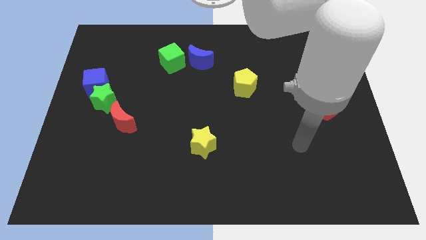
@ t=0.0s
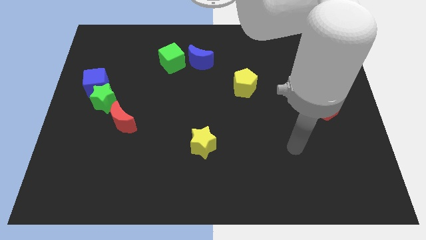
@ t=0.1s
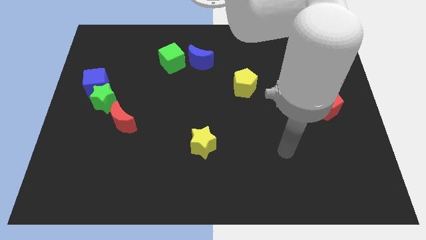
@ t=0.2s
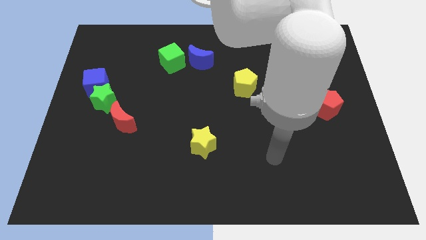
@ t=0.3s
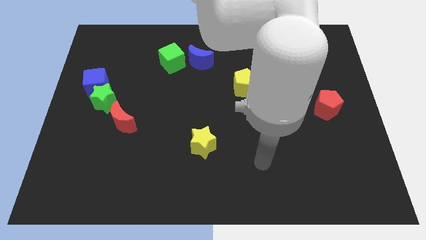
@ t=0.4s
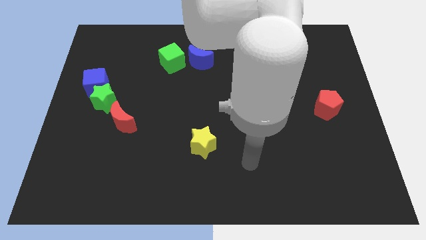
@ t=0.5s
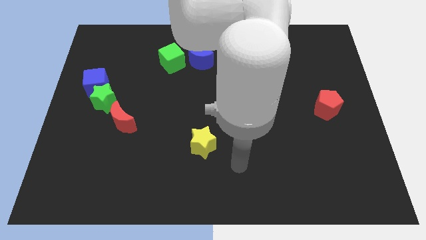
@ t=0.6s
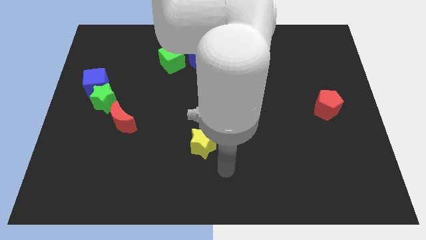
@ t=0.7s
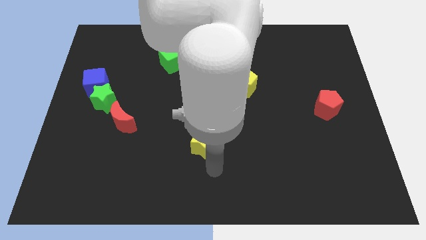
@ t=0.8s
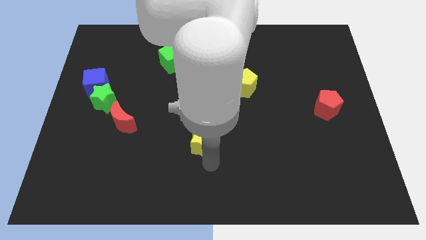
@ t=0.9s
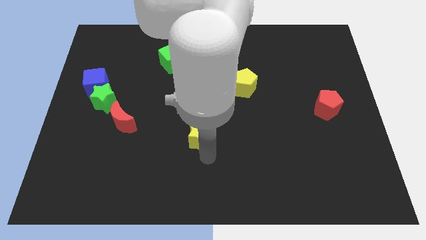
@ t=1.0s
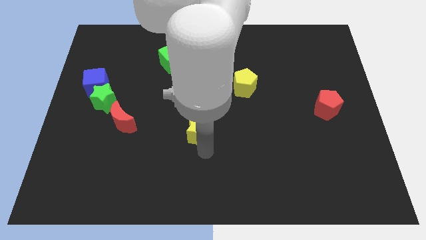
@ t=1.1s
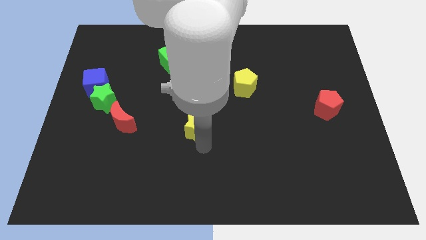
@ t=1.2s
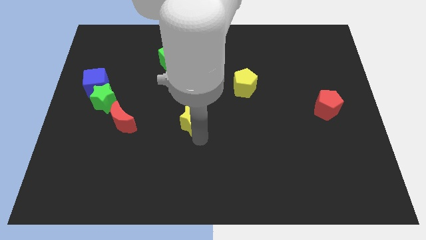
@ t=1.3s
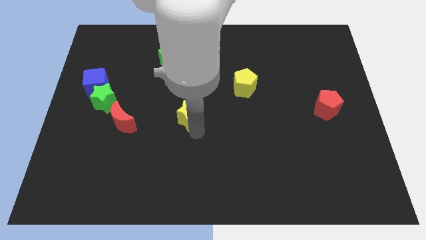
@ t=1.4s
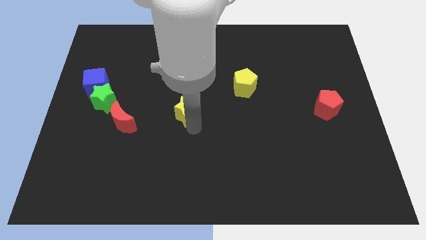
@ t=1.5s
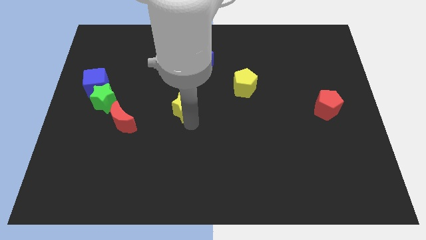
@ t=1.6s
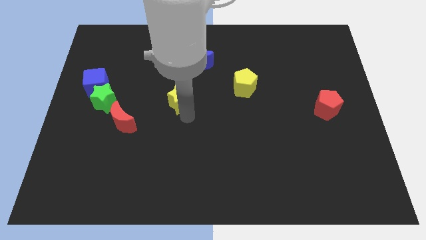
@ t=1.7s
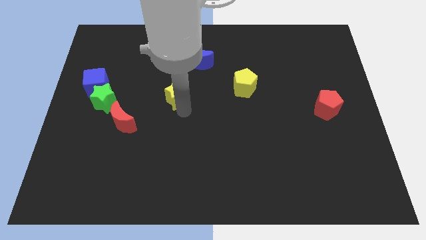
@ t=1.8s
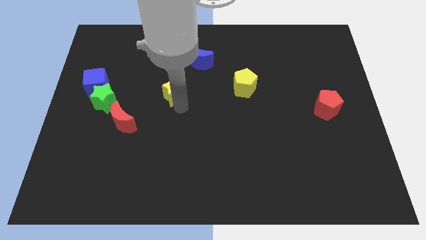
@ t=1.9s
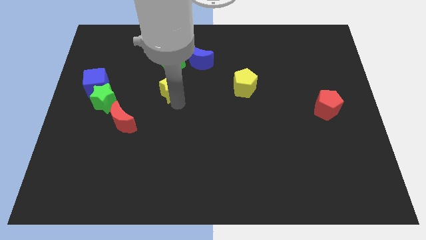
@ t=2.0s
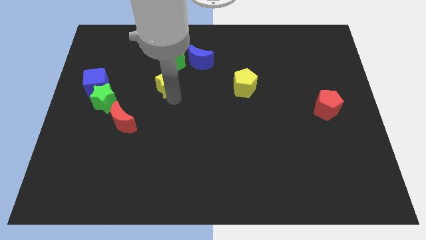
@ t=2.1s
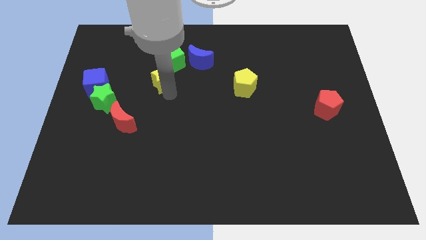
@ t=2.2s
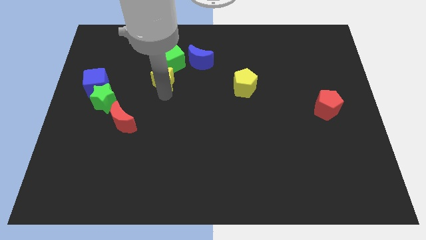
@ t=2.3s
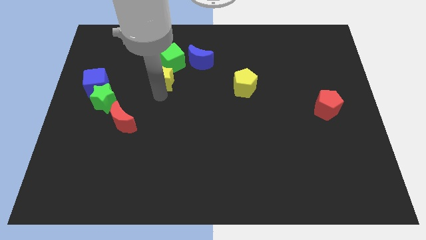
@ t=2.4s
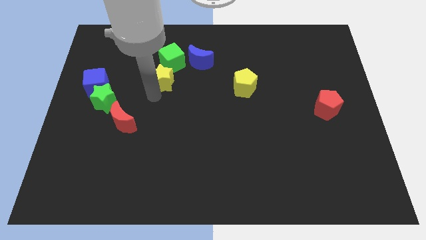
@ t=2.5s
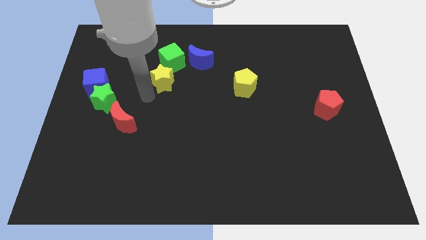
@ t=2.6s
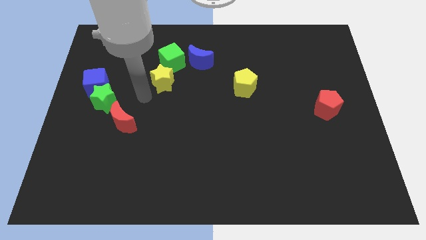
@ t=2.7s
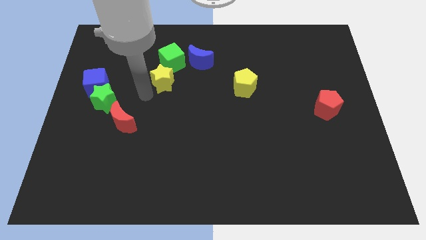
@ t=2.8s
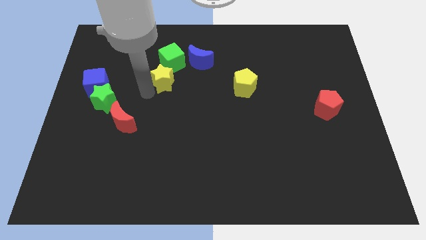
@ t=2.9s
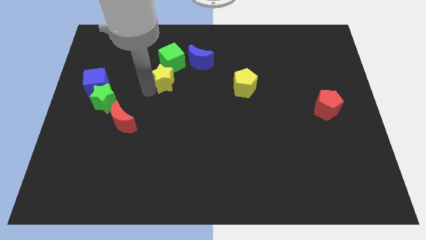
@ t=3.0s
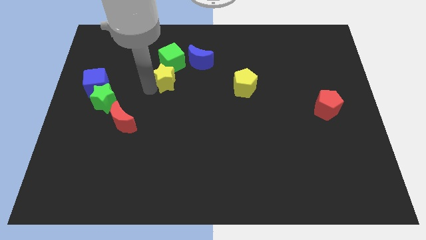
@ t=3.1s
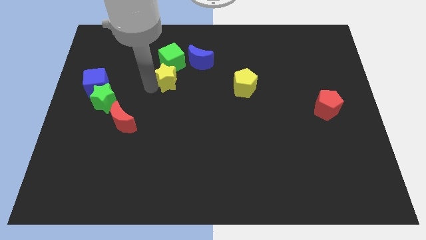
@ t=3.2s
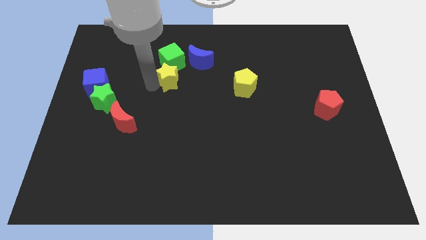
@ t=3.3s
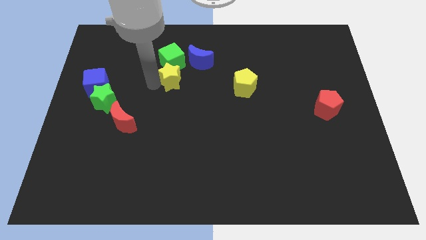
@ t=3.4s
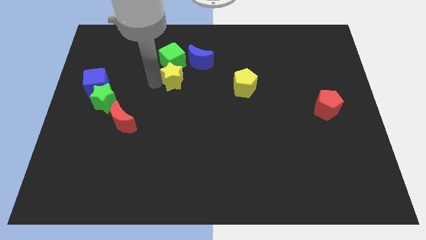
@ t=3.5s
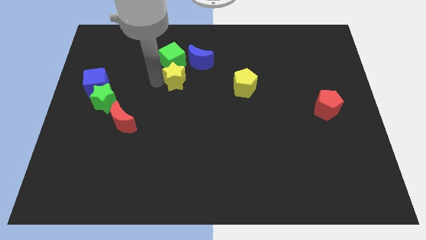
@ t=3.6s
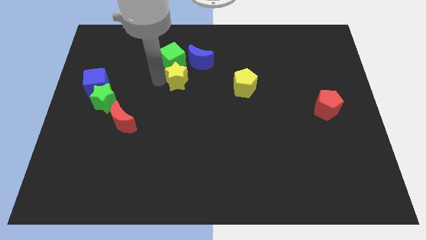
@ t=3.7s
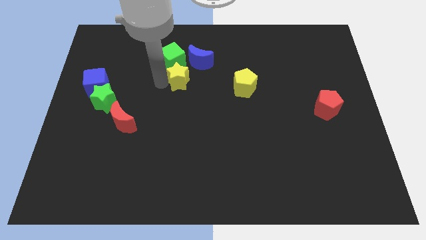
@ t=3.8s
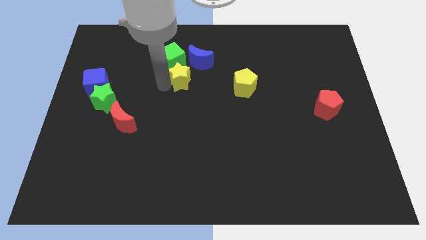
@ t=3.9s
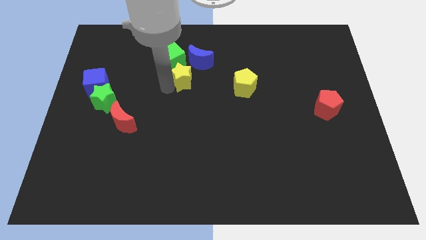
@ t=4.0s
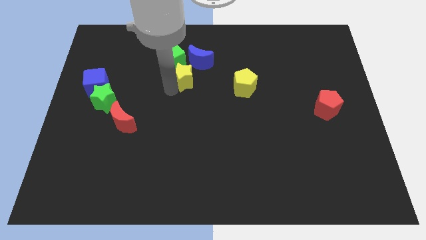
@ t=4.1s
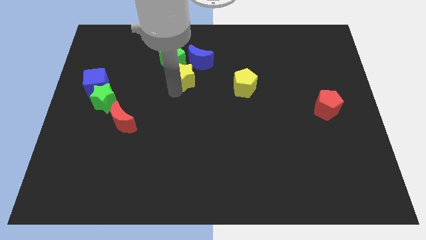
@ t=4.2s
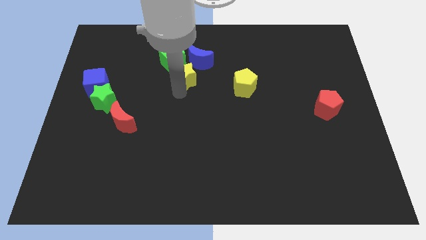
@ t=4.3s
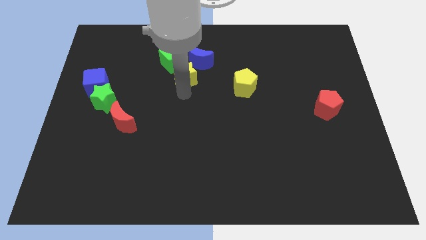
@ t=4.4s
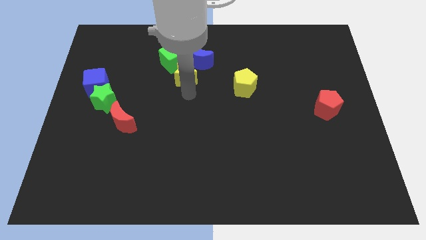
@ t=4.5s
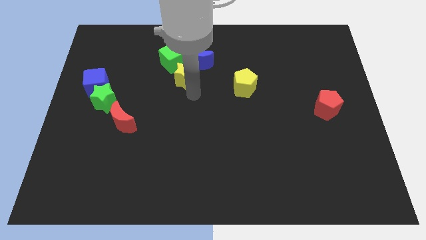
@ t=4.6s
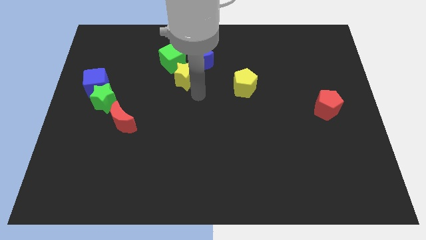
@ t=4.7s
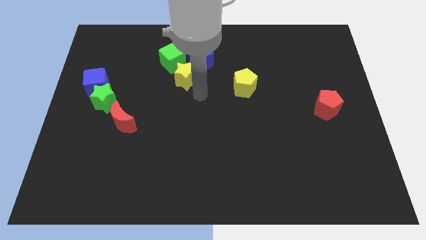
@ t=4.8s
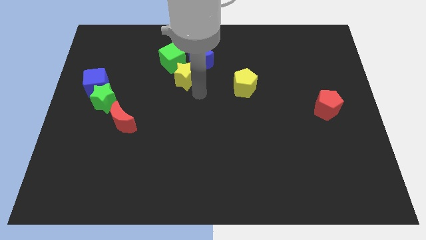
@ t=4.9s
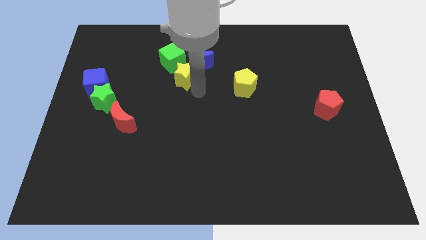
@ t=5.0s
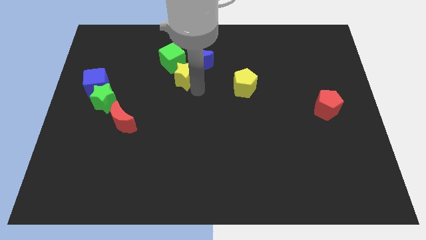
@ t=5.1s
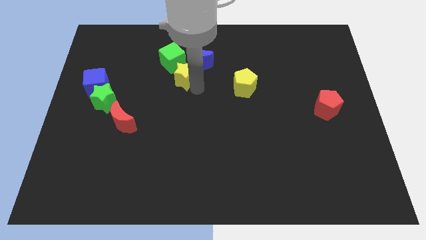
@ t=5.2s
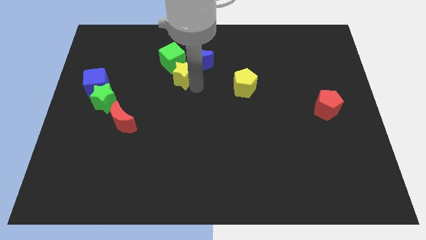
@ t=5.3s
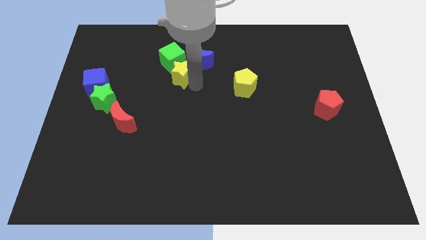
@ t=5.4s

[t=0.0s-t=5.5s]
push the yellow star to the green cube

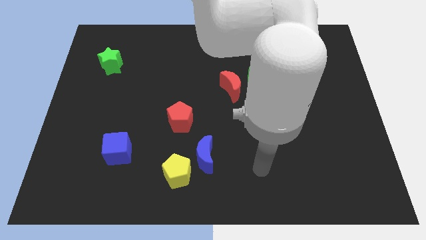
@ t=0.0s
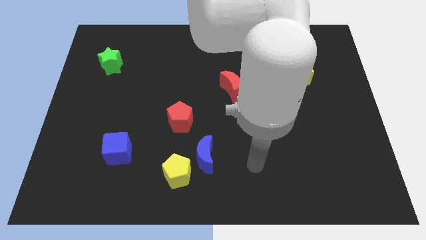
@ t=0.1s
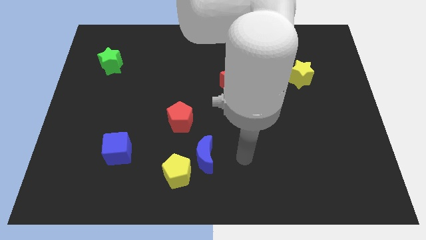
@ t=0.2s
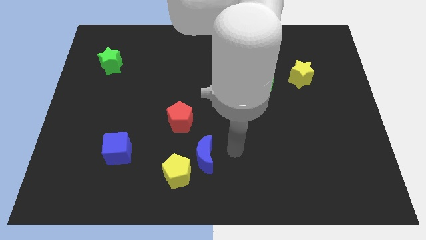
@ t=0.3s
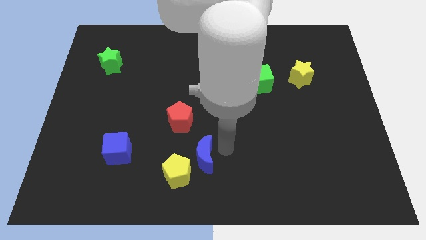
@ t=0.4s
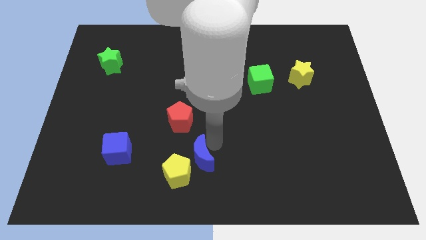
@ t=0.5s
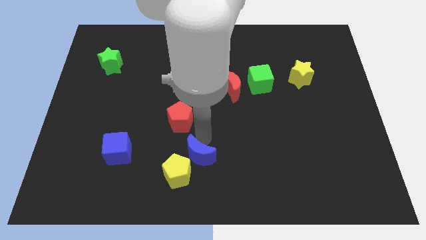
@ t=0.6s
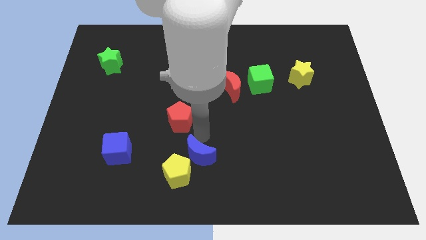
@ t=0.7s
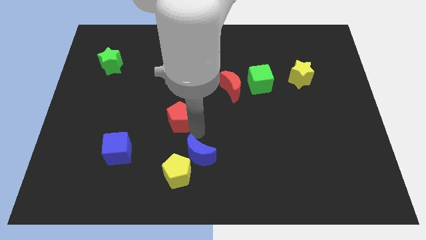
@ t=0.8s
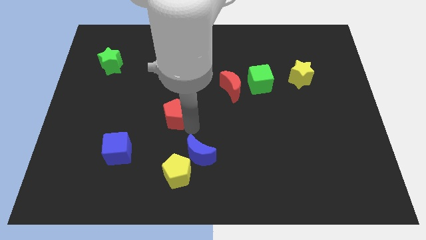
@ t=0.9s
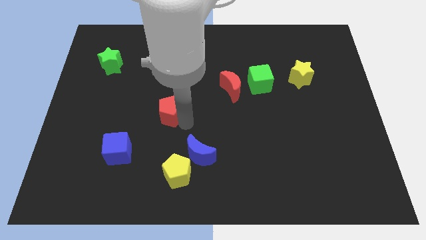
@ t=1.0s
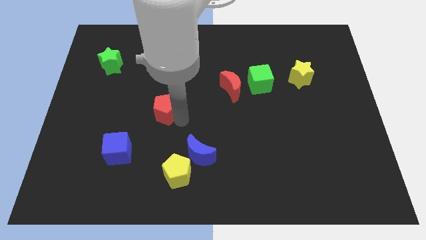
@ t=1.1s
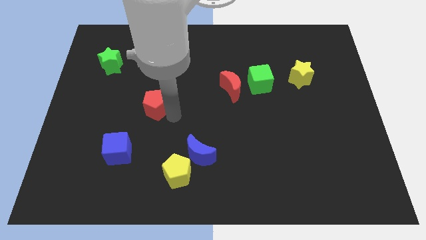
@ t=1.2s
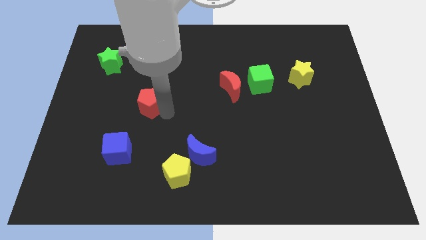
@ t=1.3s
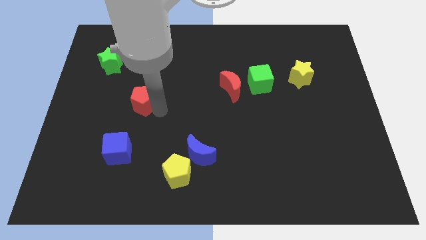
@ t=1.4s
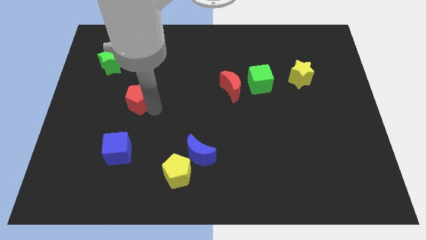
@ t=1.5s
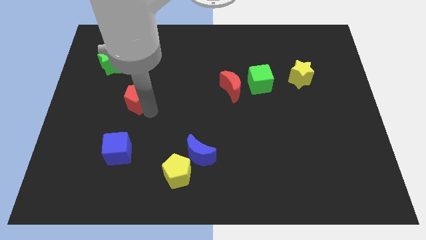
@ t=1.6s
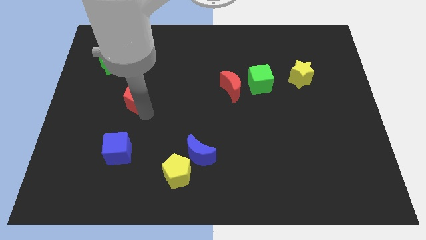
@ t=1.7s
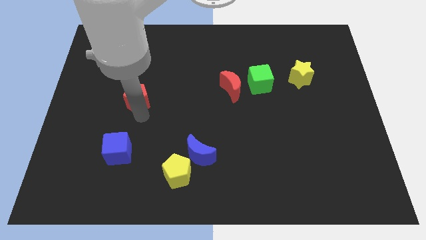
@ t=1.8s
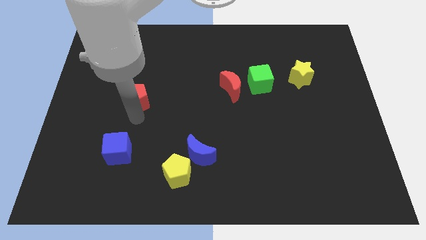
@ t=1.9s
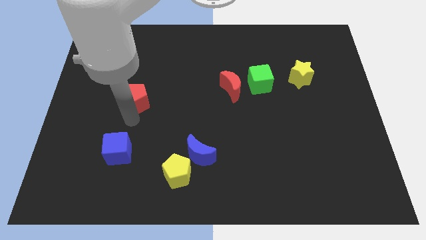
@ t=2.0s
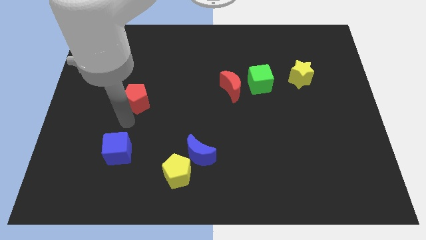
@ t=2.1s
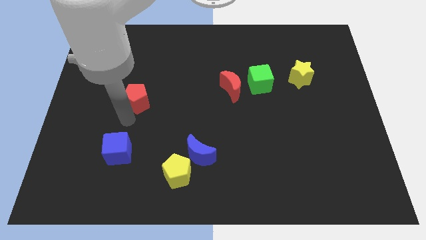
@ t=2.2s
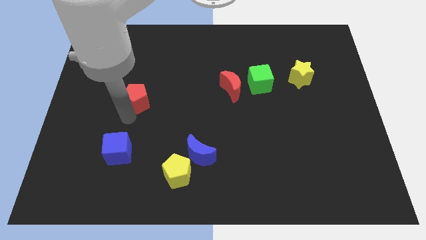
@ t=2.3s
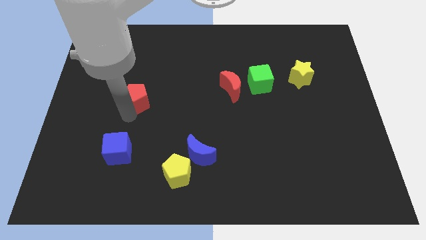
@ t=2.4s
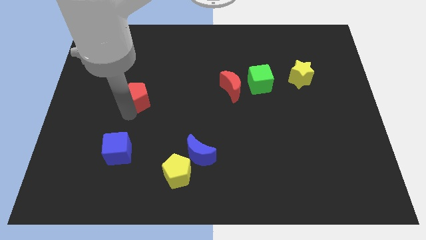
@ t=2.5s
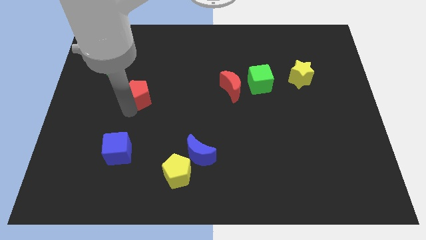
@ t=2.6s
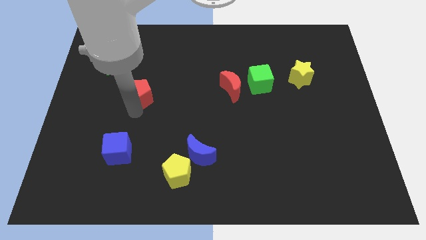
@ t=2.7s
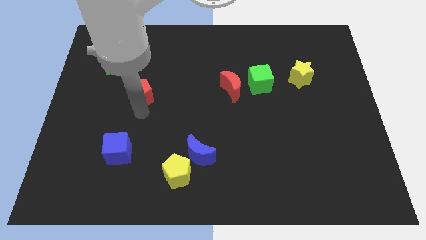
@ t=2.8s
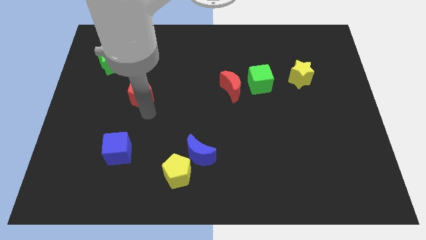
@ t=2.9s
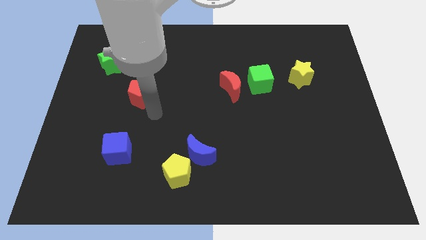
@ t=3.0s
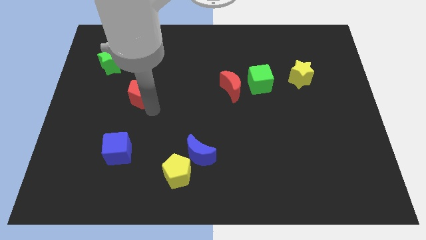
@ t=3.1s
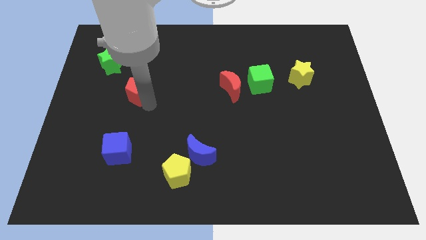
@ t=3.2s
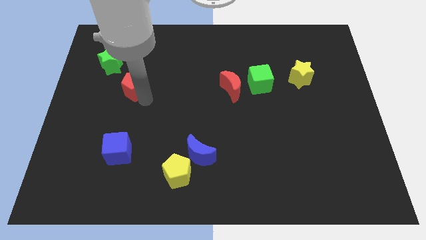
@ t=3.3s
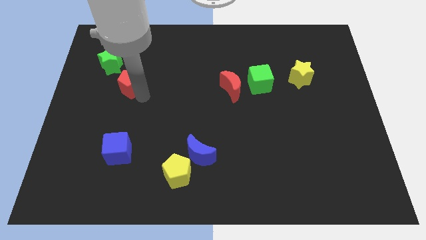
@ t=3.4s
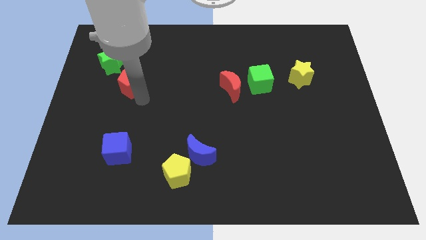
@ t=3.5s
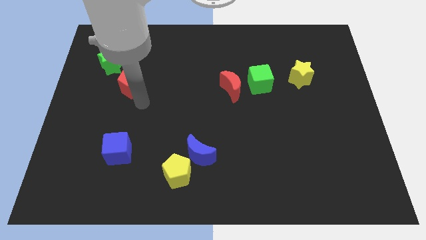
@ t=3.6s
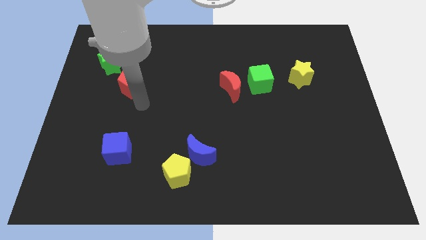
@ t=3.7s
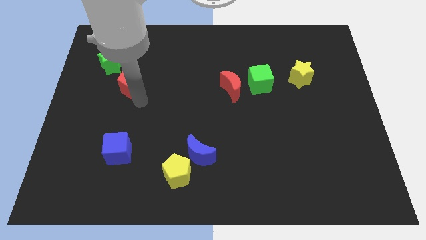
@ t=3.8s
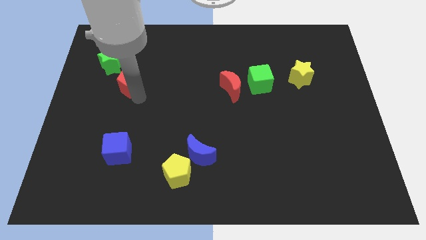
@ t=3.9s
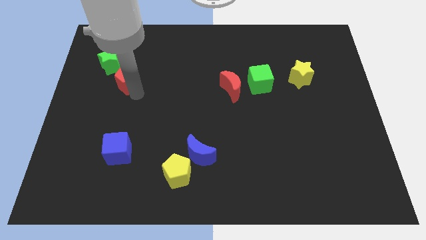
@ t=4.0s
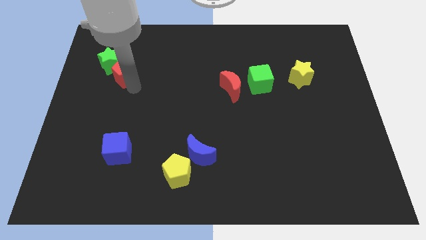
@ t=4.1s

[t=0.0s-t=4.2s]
push the red pentagon next to the green star
